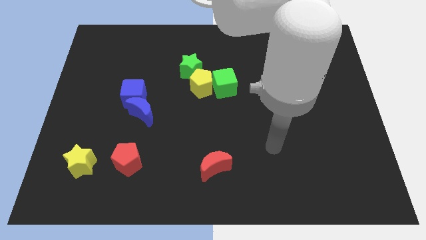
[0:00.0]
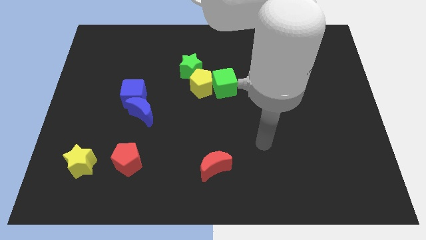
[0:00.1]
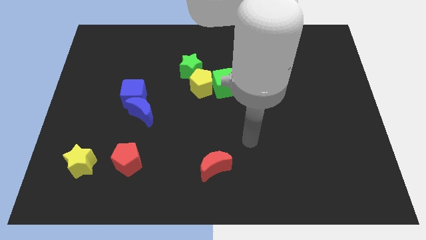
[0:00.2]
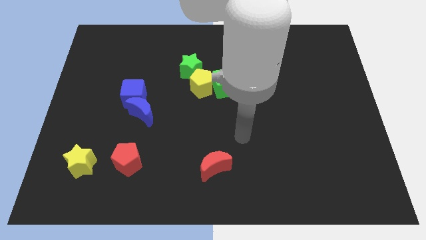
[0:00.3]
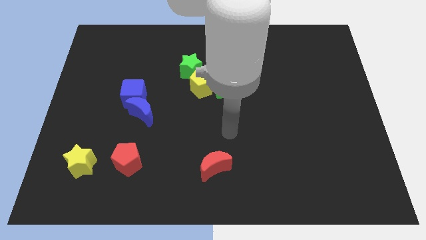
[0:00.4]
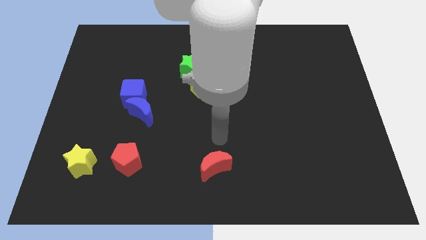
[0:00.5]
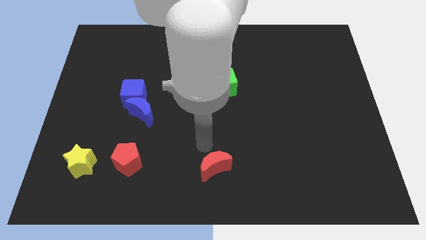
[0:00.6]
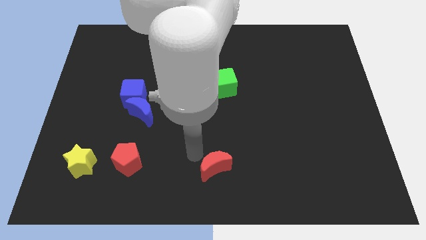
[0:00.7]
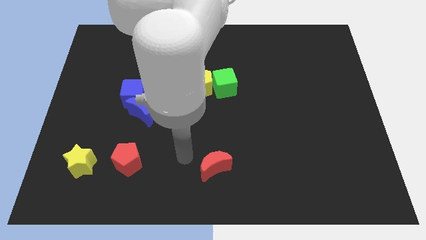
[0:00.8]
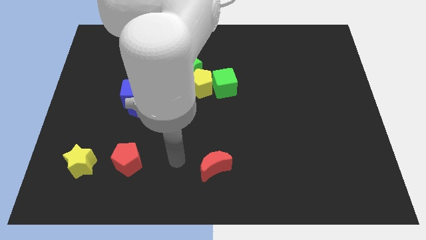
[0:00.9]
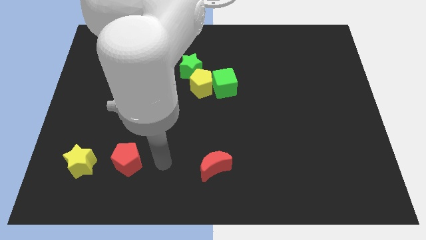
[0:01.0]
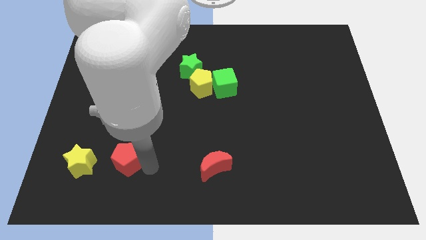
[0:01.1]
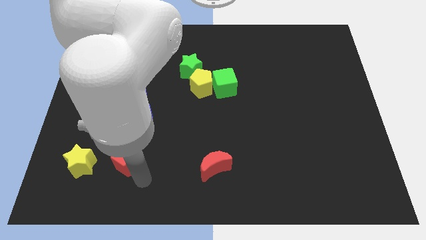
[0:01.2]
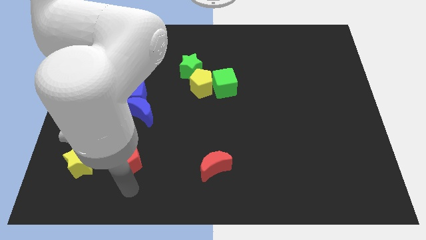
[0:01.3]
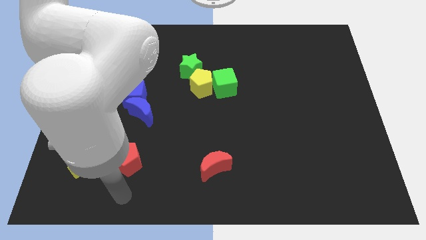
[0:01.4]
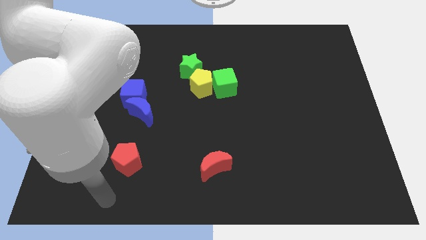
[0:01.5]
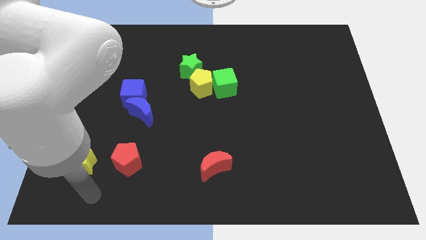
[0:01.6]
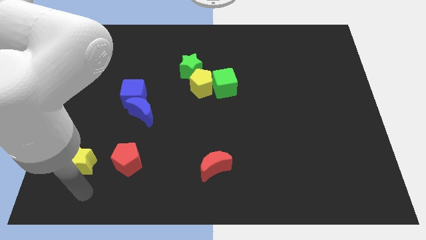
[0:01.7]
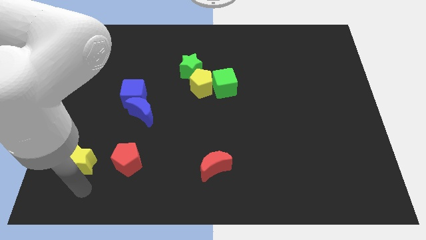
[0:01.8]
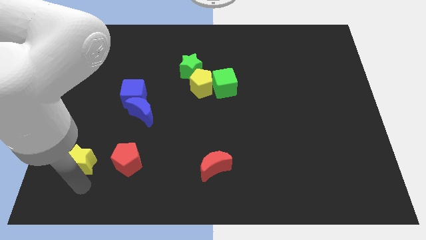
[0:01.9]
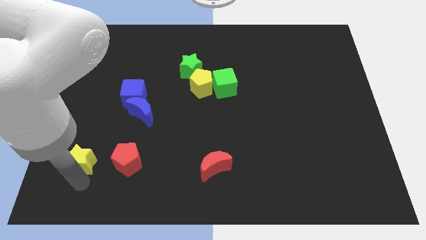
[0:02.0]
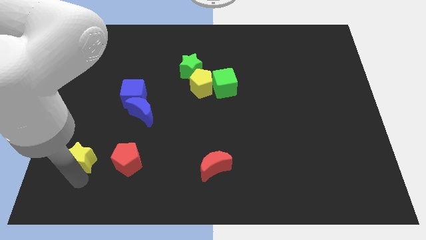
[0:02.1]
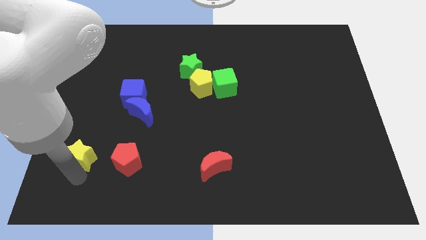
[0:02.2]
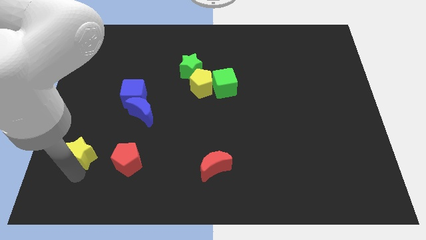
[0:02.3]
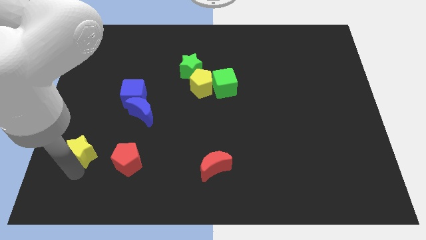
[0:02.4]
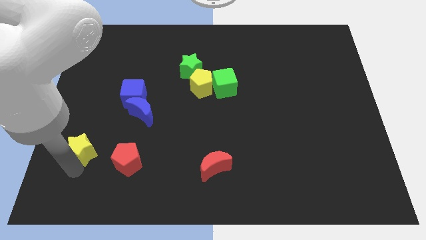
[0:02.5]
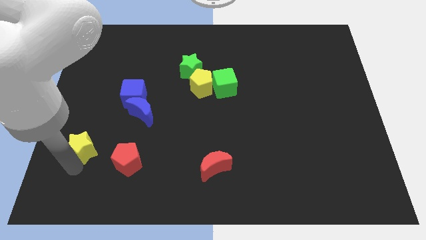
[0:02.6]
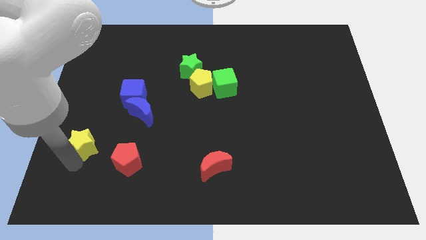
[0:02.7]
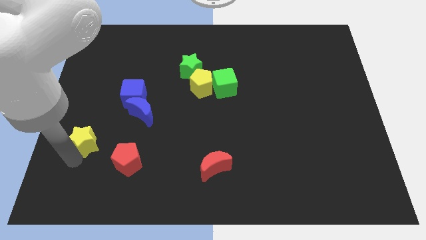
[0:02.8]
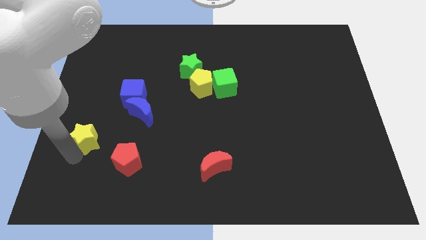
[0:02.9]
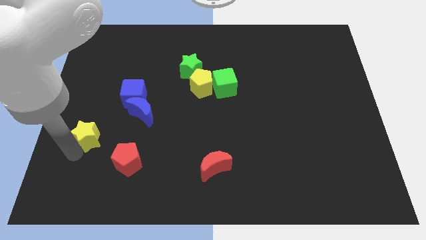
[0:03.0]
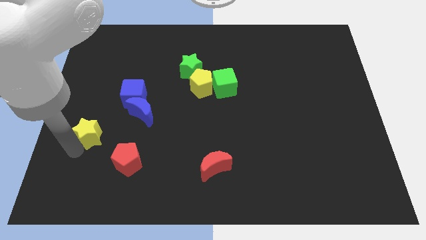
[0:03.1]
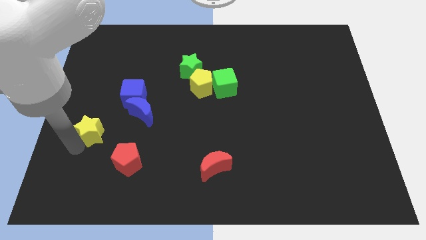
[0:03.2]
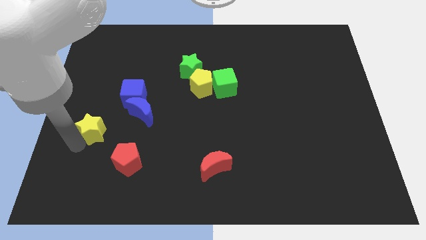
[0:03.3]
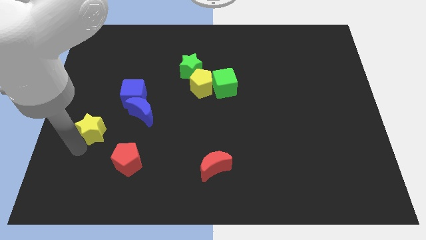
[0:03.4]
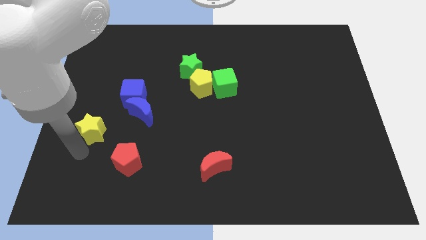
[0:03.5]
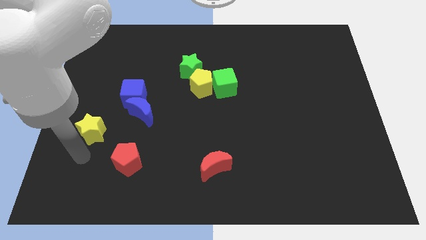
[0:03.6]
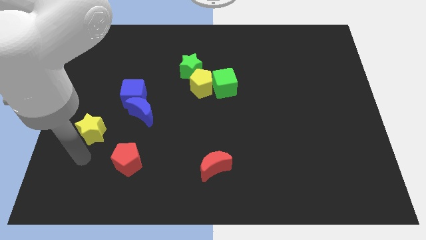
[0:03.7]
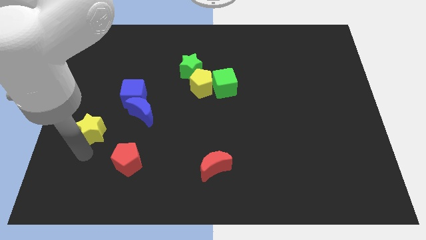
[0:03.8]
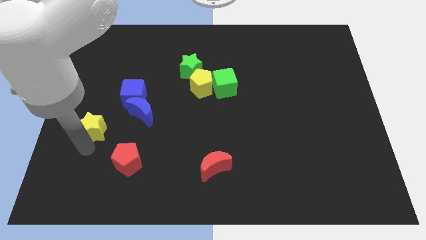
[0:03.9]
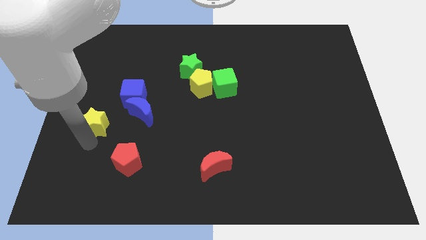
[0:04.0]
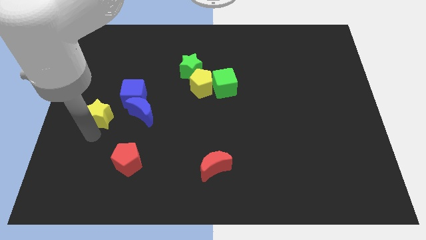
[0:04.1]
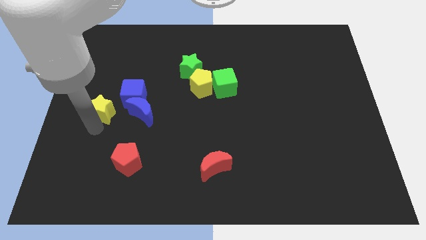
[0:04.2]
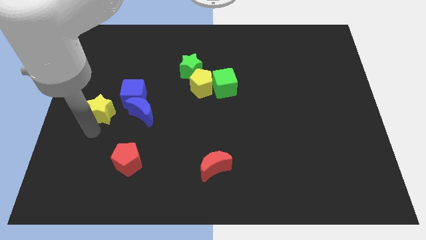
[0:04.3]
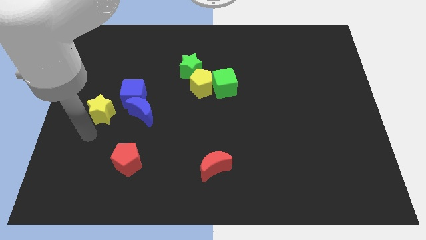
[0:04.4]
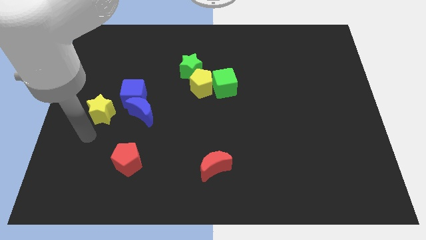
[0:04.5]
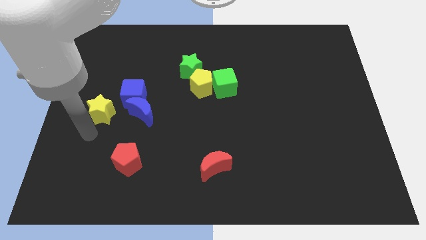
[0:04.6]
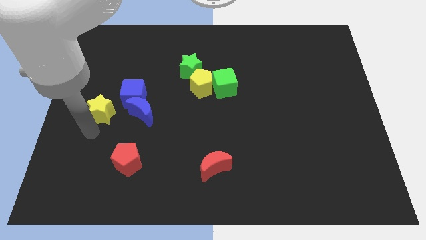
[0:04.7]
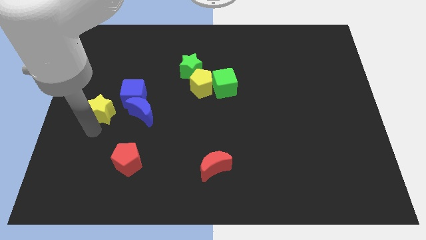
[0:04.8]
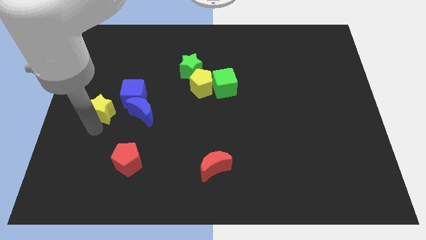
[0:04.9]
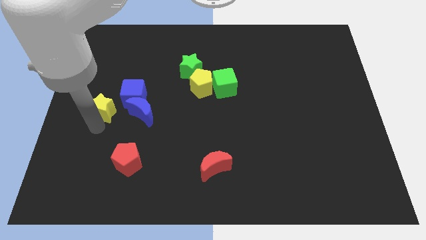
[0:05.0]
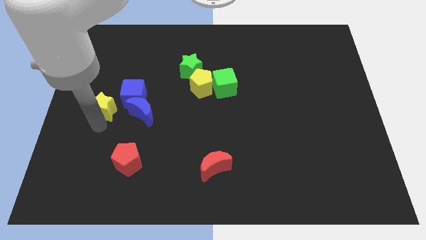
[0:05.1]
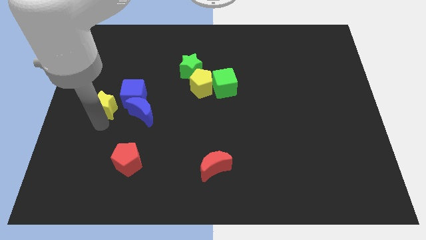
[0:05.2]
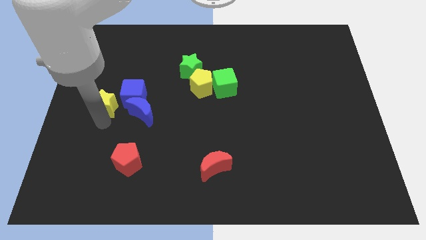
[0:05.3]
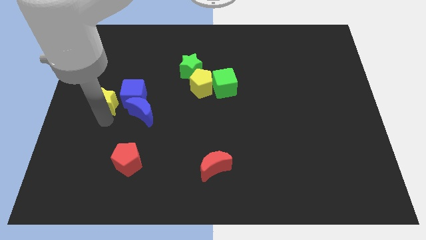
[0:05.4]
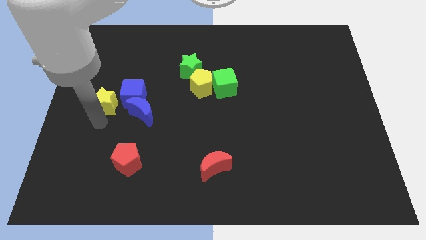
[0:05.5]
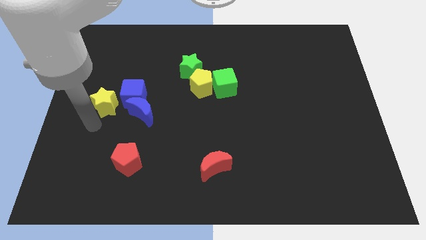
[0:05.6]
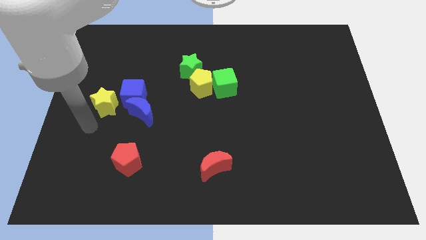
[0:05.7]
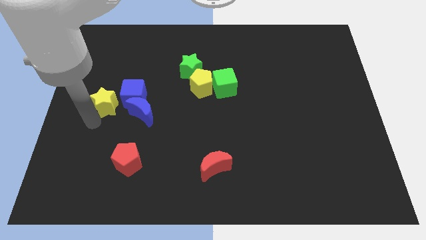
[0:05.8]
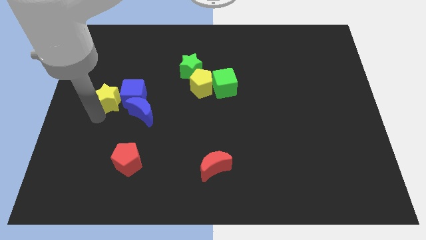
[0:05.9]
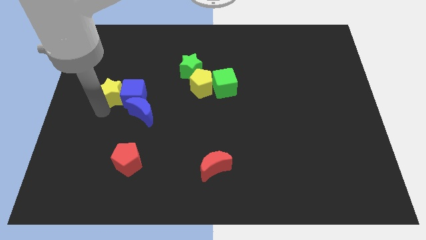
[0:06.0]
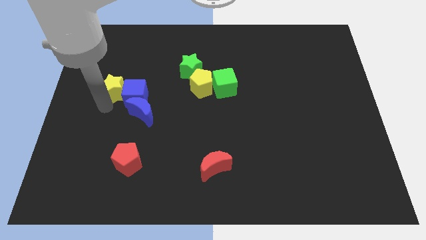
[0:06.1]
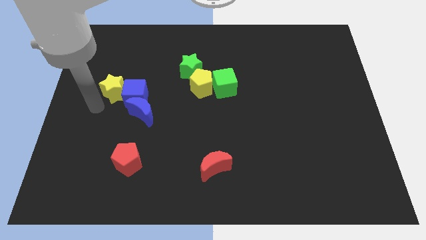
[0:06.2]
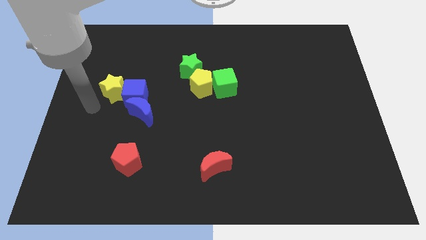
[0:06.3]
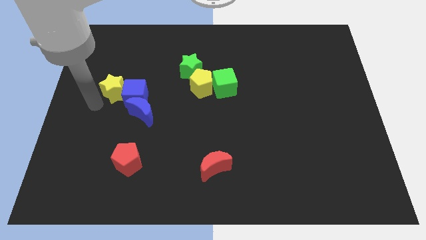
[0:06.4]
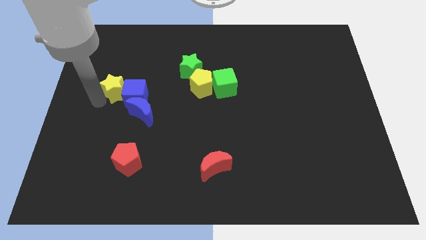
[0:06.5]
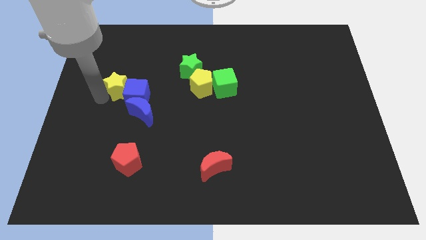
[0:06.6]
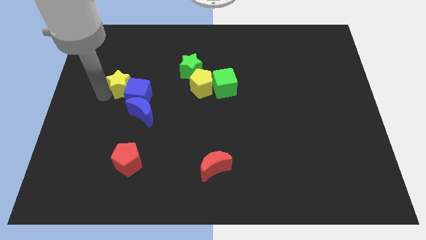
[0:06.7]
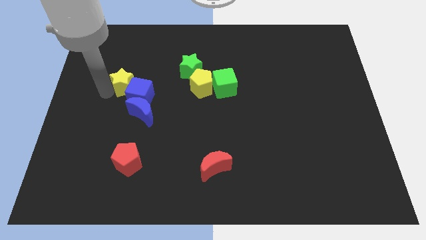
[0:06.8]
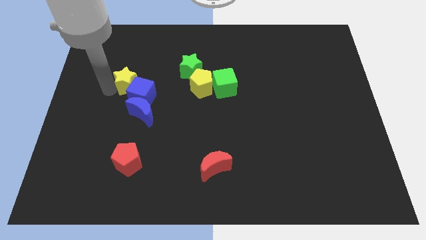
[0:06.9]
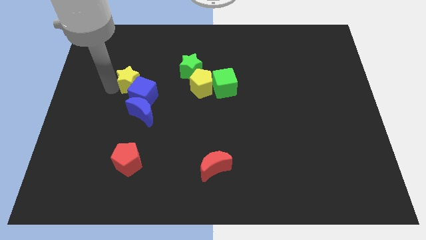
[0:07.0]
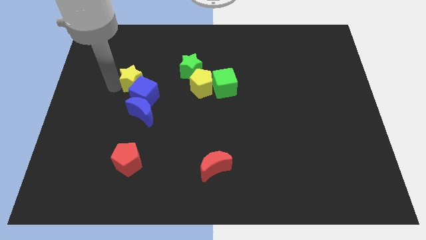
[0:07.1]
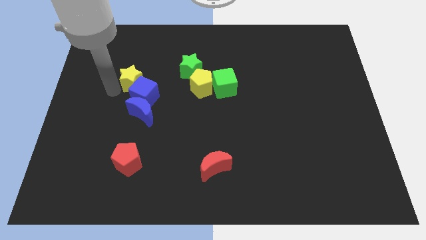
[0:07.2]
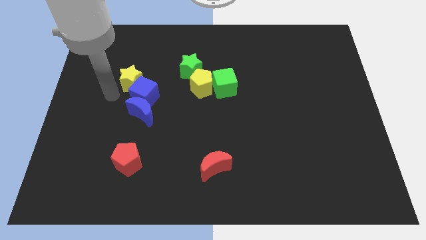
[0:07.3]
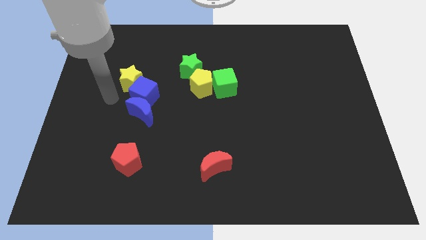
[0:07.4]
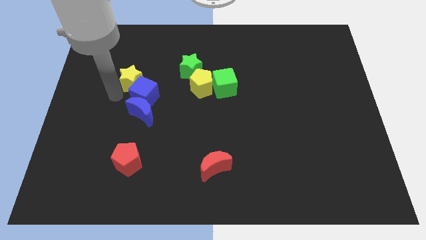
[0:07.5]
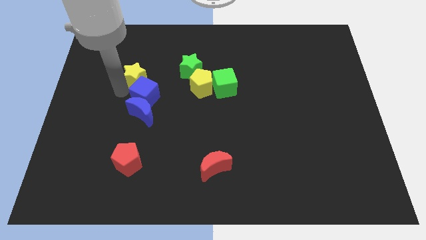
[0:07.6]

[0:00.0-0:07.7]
put the yellow star just left of the green star
